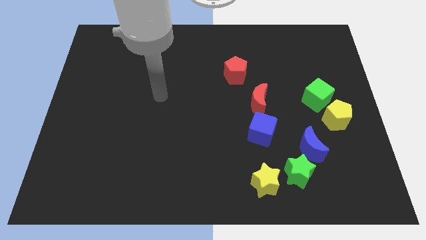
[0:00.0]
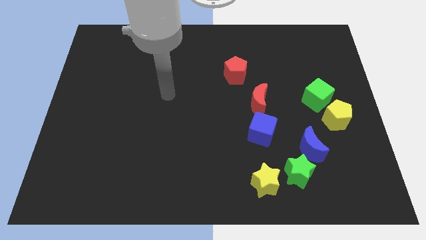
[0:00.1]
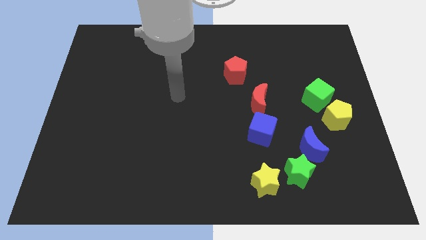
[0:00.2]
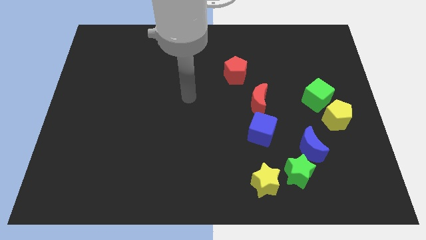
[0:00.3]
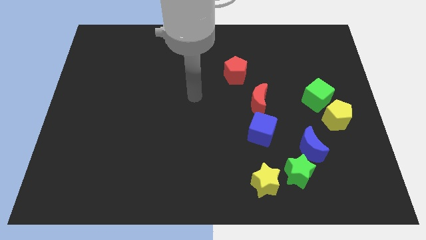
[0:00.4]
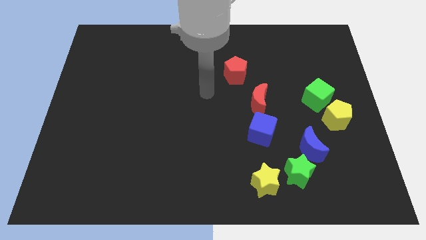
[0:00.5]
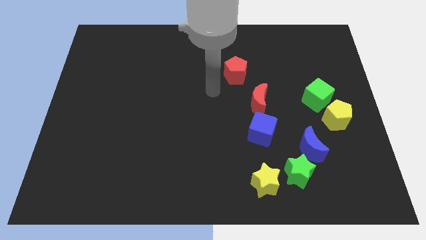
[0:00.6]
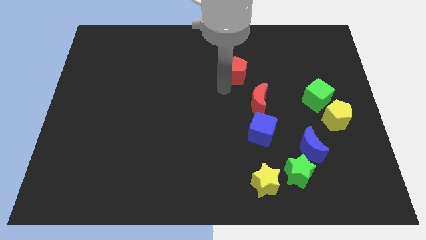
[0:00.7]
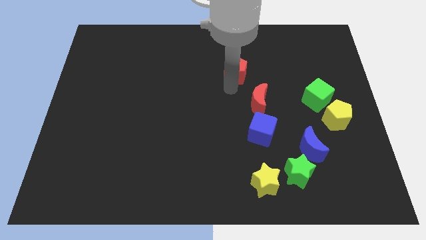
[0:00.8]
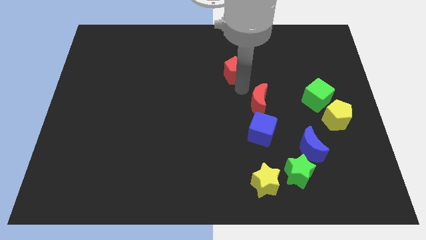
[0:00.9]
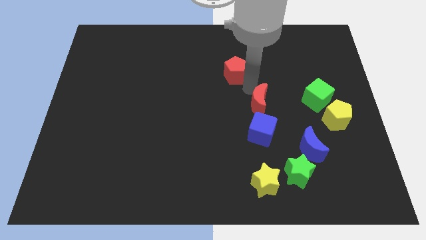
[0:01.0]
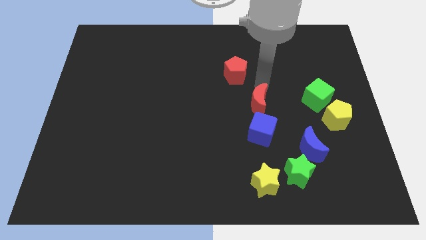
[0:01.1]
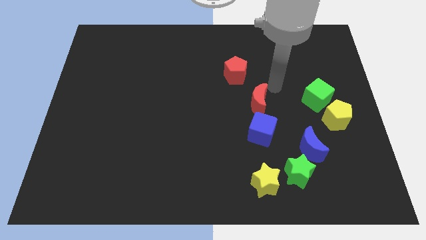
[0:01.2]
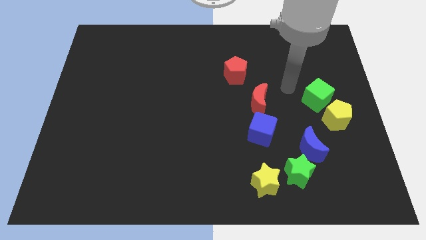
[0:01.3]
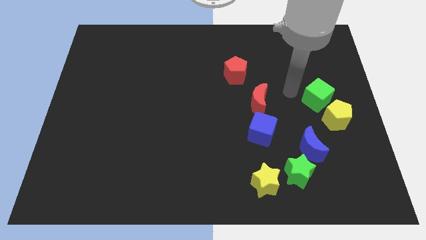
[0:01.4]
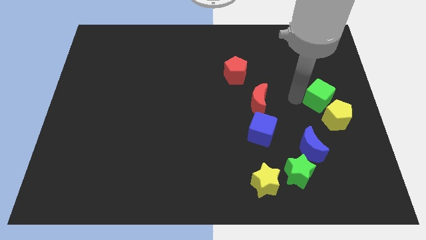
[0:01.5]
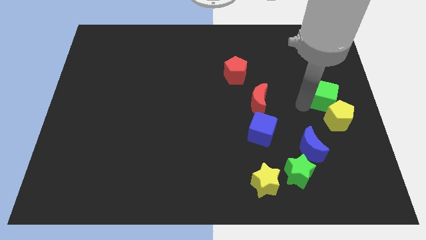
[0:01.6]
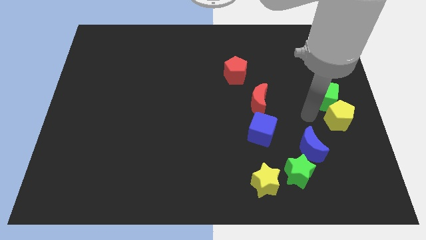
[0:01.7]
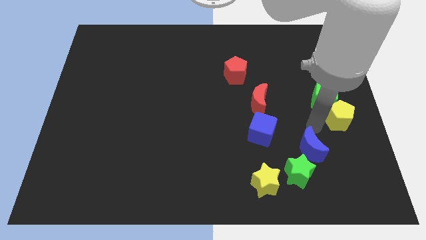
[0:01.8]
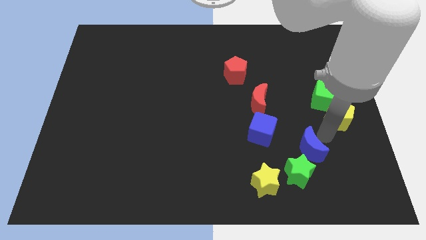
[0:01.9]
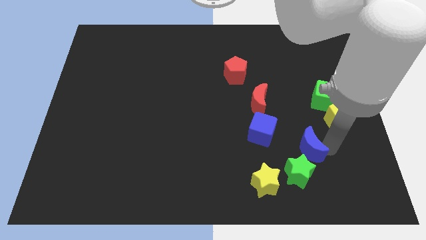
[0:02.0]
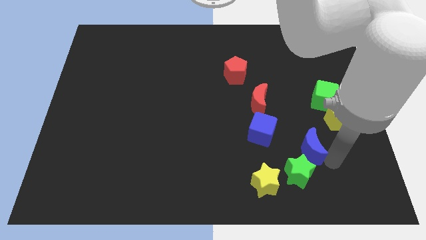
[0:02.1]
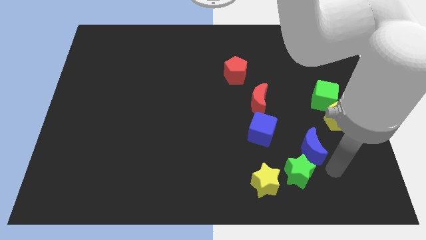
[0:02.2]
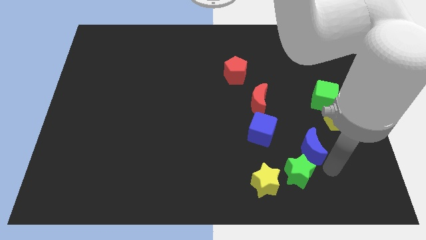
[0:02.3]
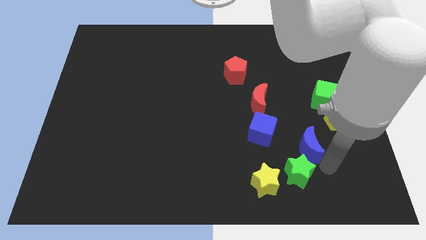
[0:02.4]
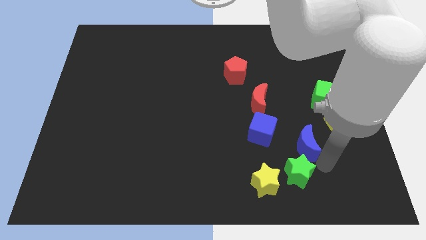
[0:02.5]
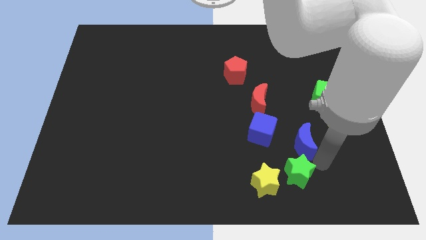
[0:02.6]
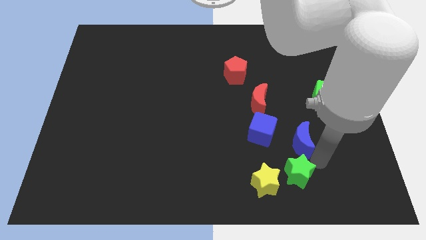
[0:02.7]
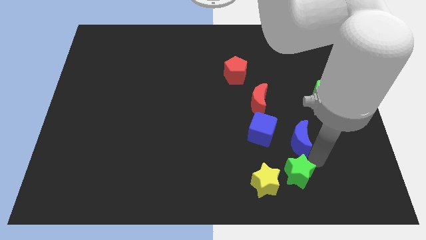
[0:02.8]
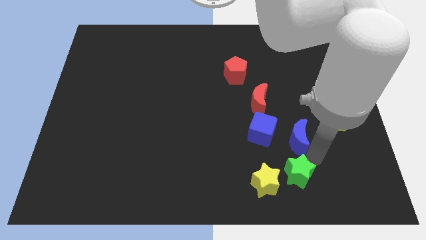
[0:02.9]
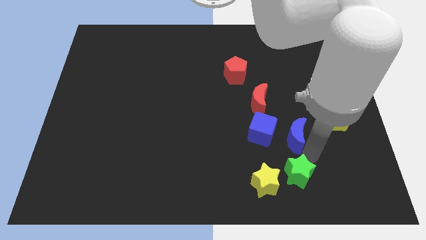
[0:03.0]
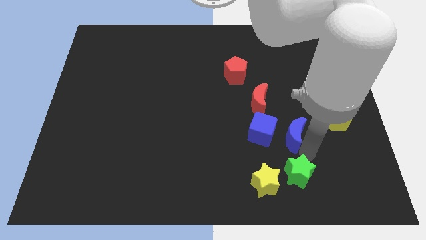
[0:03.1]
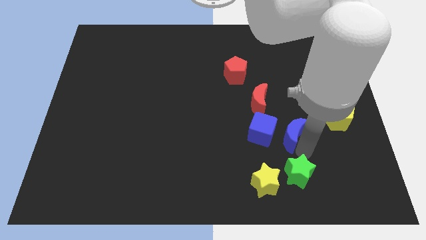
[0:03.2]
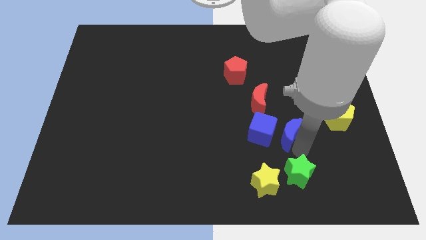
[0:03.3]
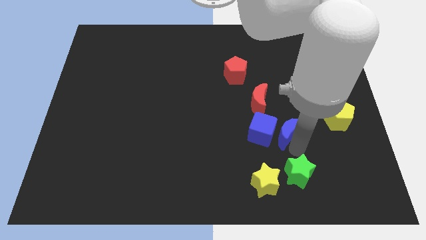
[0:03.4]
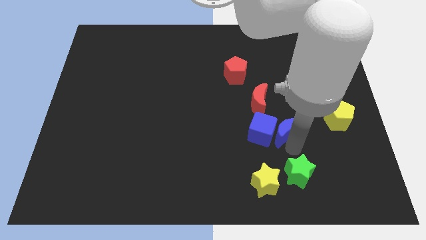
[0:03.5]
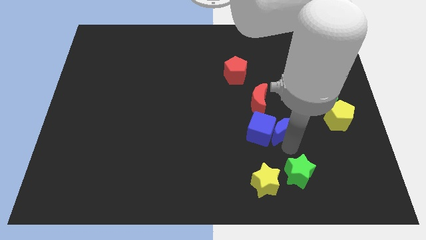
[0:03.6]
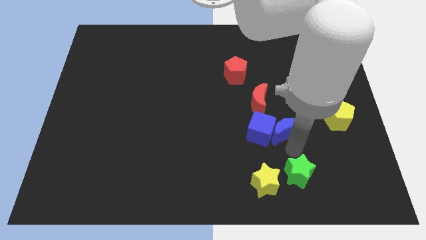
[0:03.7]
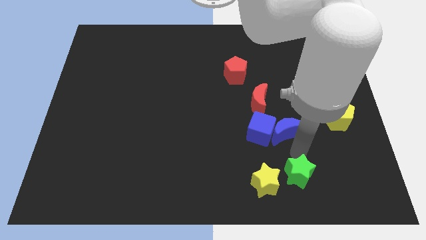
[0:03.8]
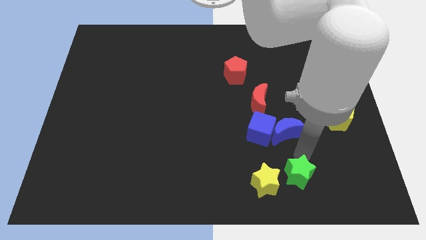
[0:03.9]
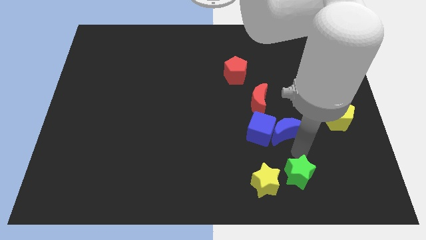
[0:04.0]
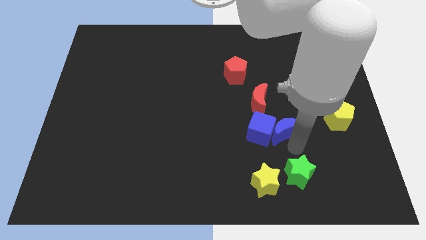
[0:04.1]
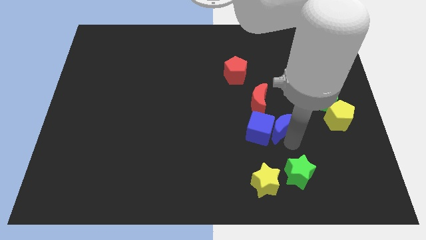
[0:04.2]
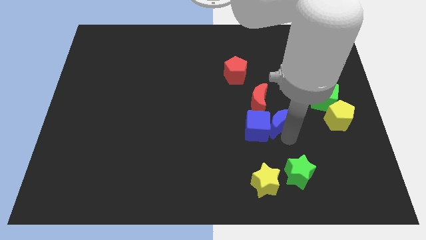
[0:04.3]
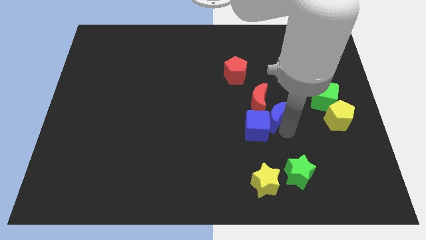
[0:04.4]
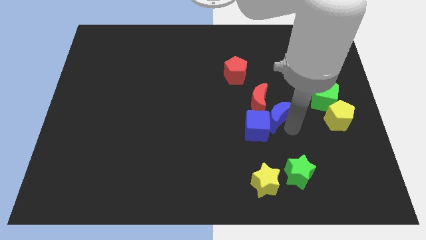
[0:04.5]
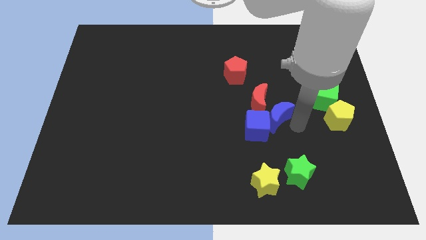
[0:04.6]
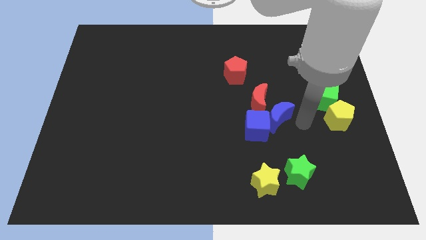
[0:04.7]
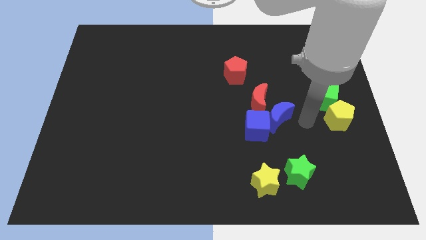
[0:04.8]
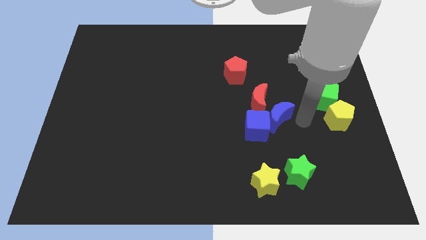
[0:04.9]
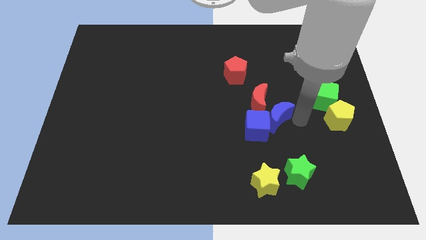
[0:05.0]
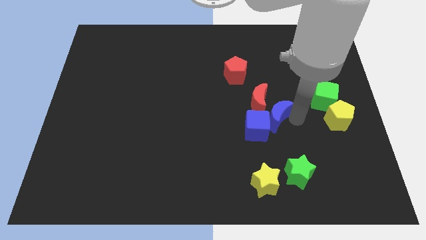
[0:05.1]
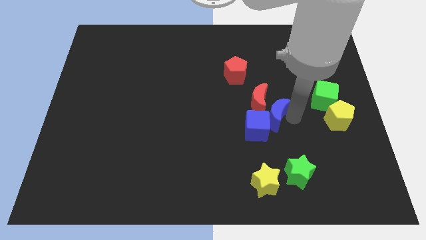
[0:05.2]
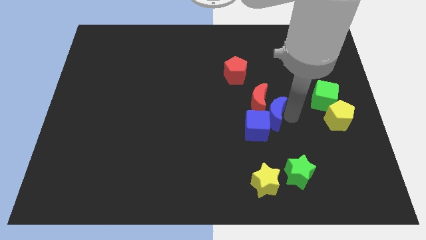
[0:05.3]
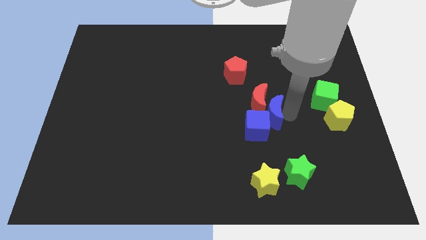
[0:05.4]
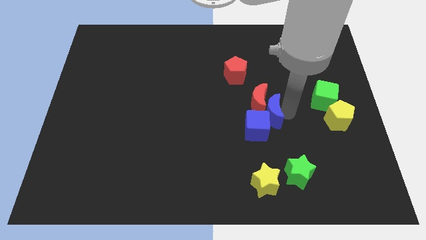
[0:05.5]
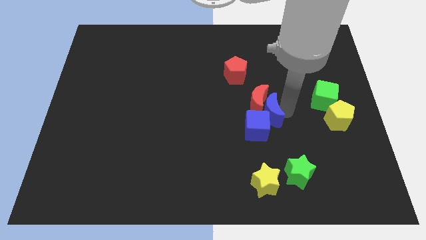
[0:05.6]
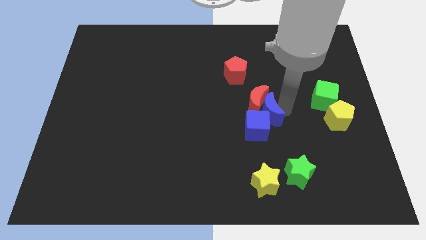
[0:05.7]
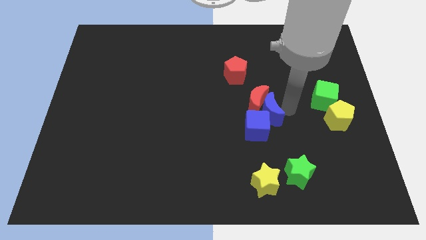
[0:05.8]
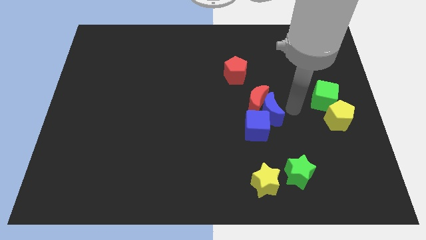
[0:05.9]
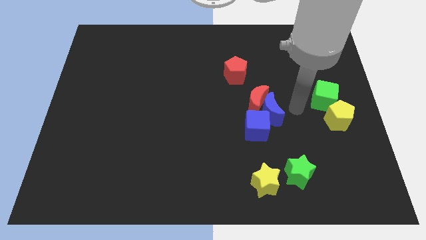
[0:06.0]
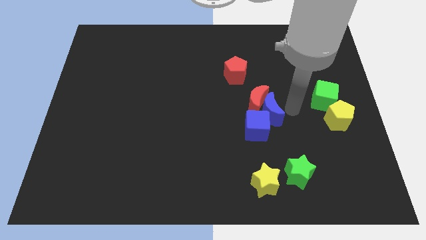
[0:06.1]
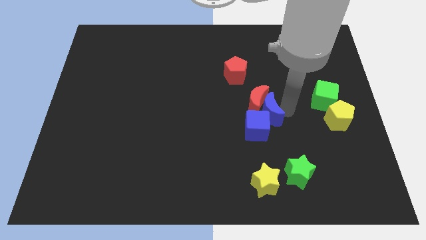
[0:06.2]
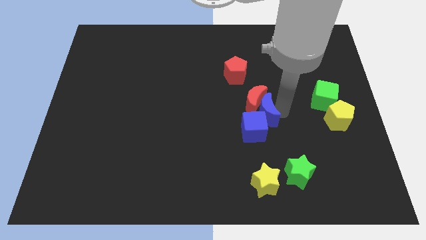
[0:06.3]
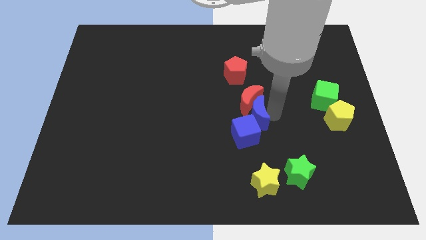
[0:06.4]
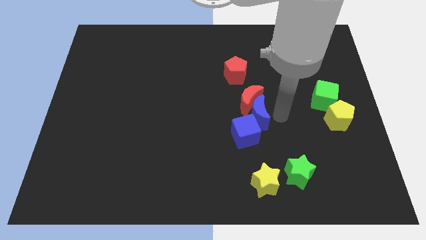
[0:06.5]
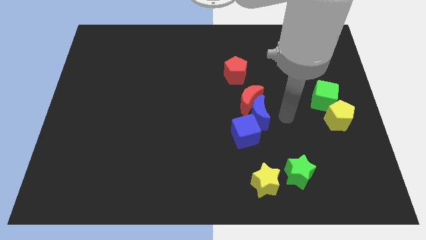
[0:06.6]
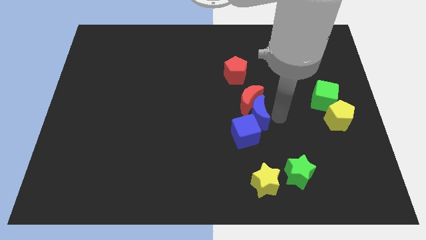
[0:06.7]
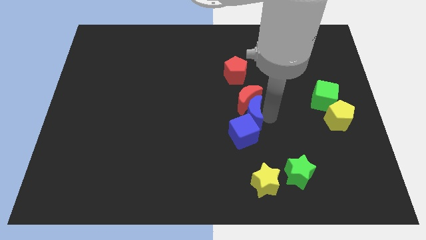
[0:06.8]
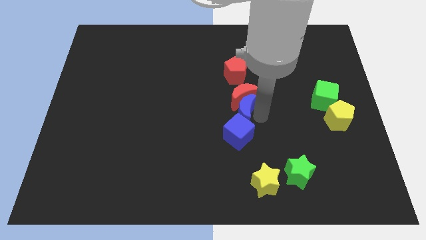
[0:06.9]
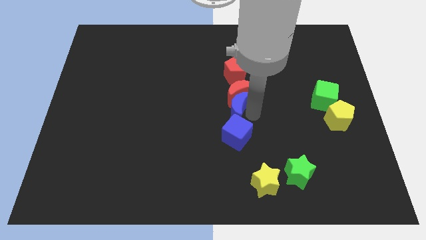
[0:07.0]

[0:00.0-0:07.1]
slide the blue moon to the top left side of the blue cube

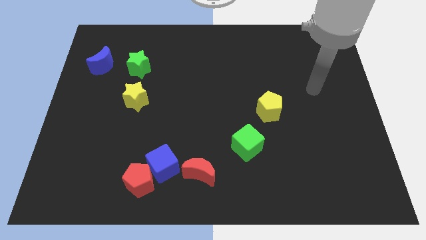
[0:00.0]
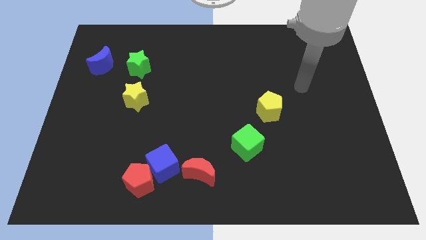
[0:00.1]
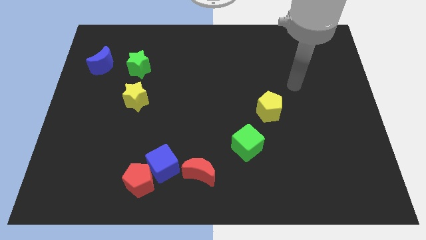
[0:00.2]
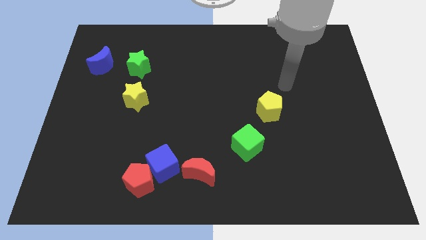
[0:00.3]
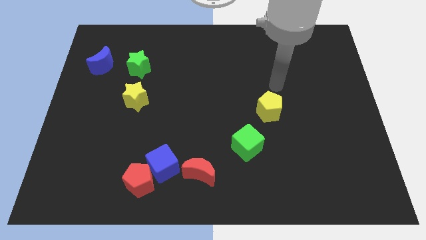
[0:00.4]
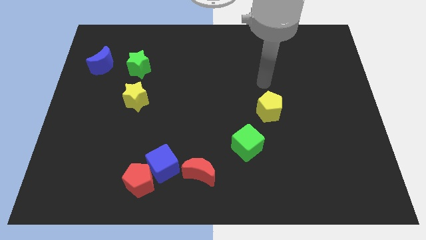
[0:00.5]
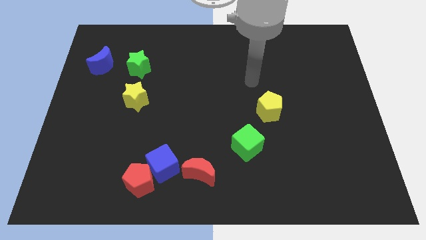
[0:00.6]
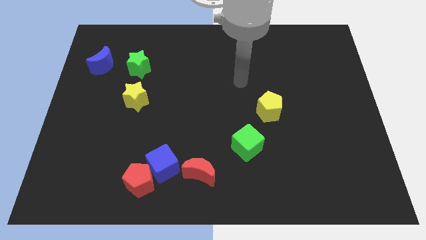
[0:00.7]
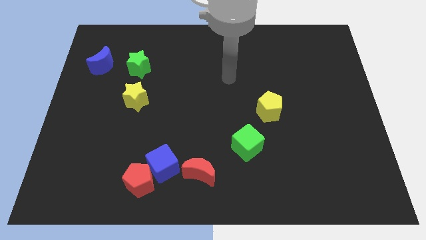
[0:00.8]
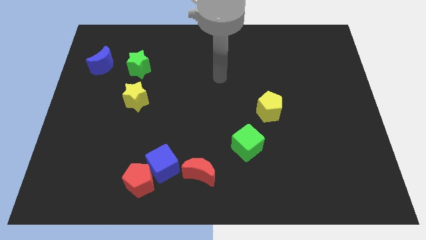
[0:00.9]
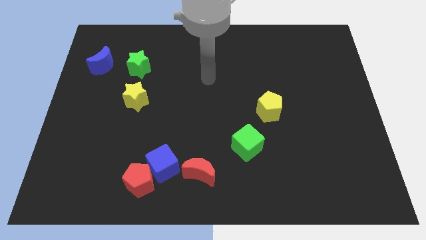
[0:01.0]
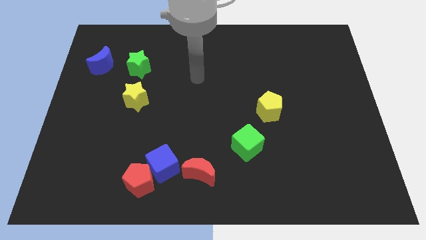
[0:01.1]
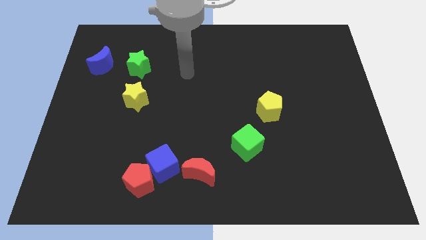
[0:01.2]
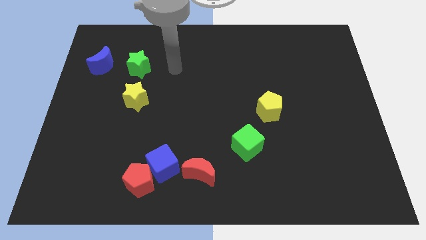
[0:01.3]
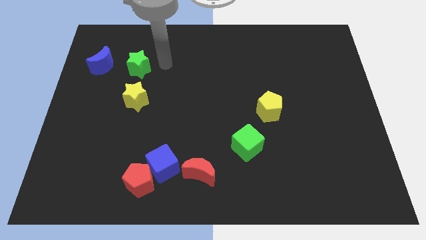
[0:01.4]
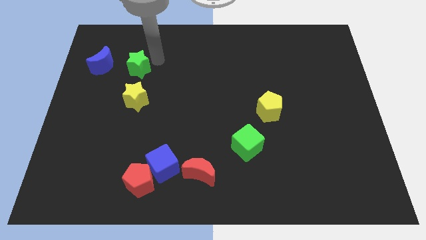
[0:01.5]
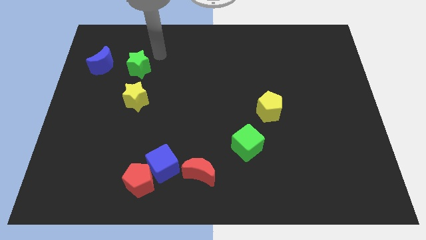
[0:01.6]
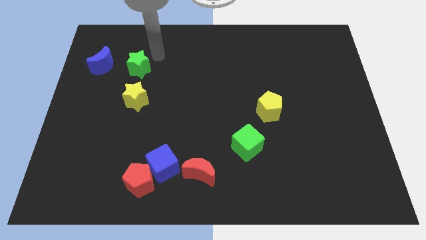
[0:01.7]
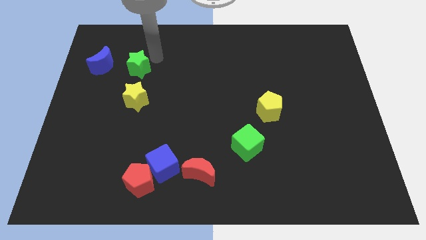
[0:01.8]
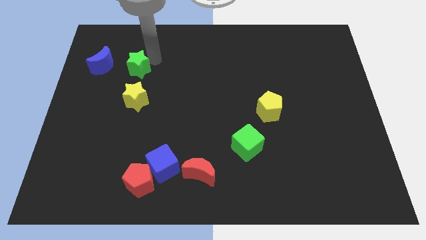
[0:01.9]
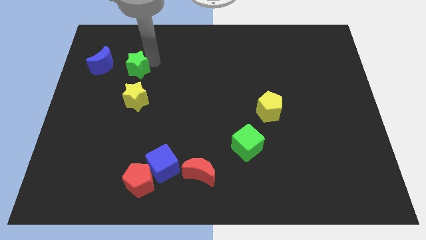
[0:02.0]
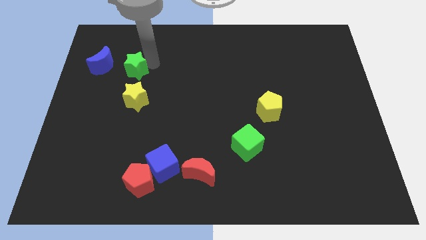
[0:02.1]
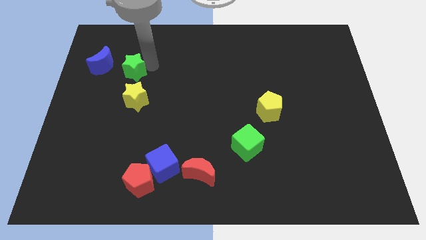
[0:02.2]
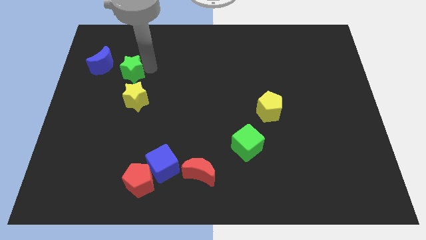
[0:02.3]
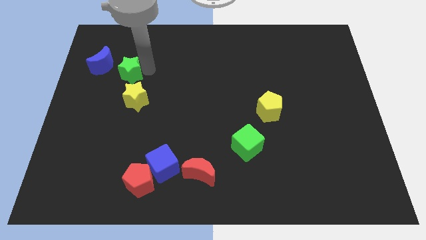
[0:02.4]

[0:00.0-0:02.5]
slide the green star to the top left side of the yellow star
